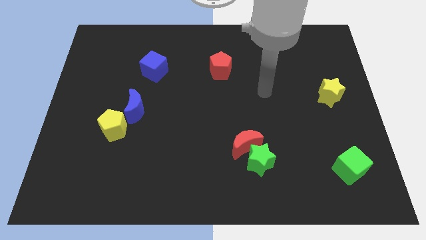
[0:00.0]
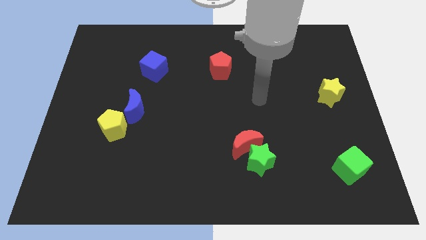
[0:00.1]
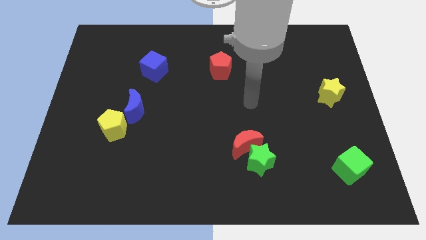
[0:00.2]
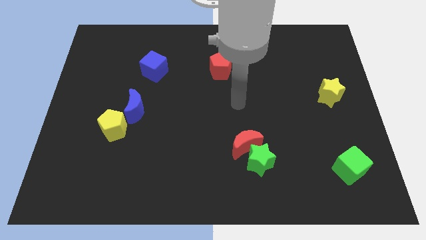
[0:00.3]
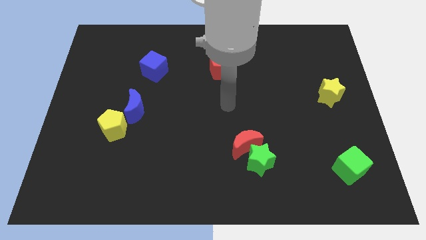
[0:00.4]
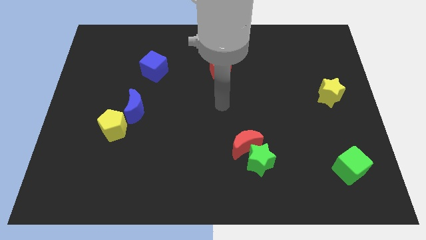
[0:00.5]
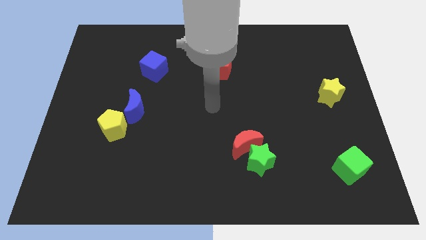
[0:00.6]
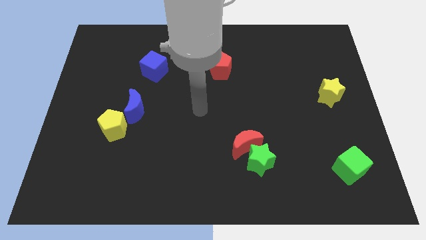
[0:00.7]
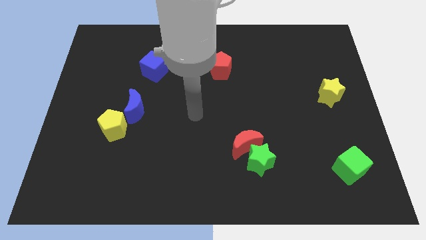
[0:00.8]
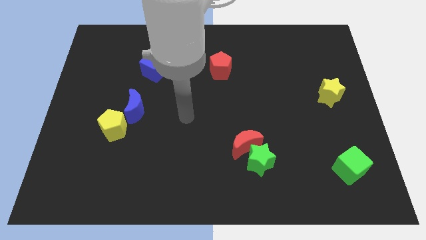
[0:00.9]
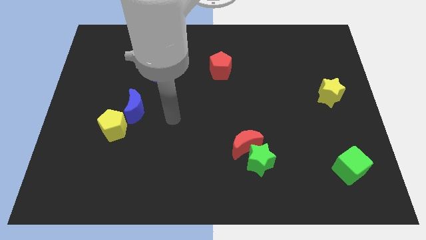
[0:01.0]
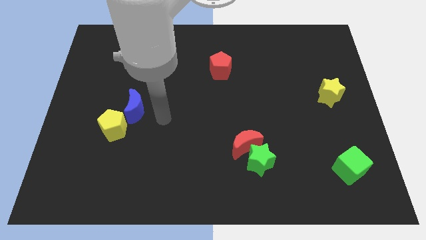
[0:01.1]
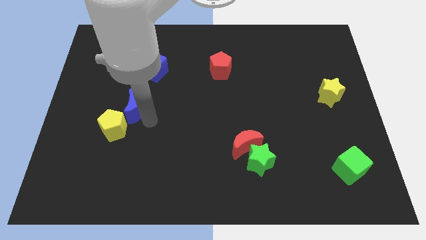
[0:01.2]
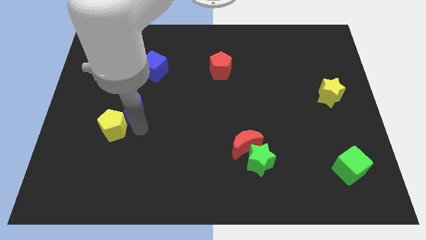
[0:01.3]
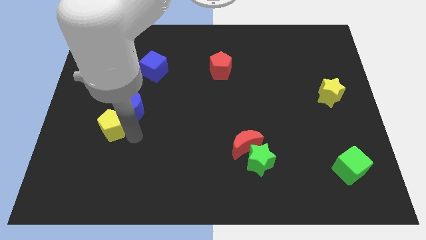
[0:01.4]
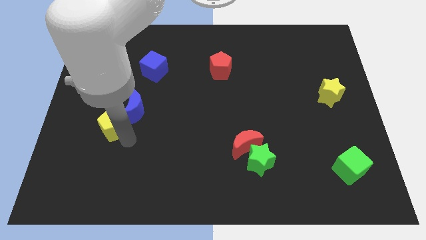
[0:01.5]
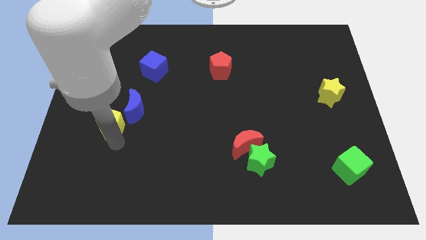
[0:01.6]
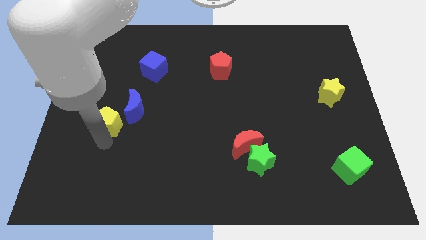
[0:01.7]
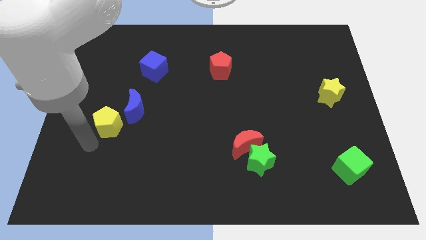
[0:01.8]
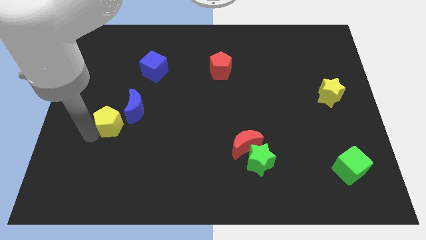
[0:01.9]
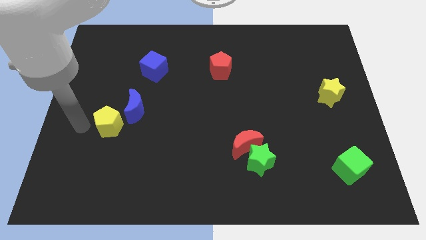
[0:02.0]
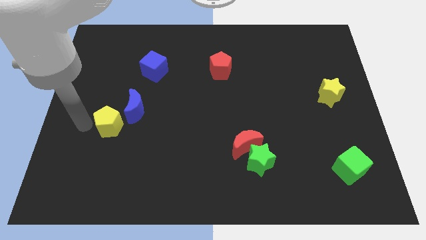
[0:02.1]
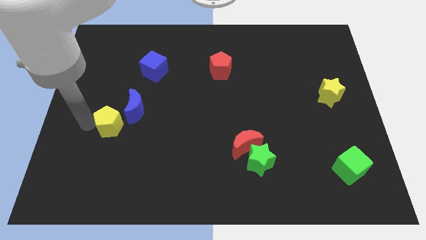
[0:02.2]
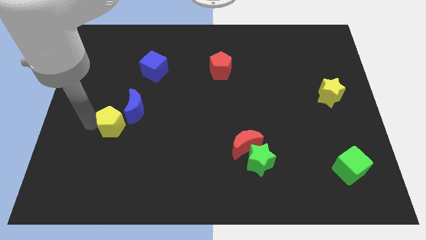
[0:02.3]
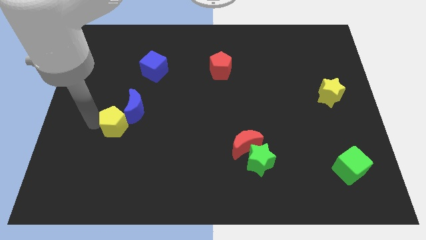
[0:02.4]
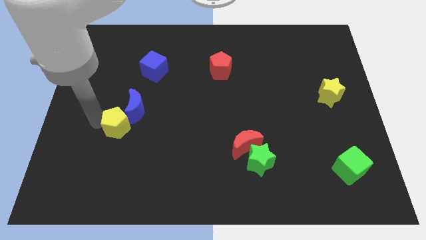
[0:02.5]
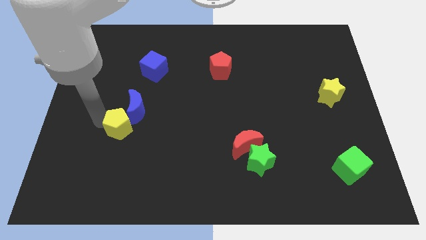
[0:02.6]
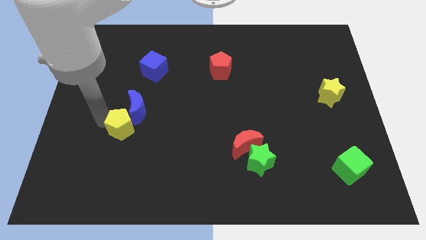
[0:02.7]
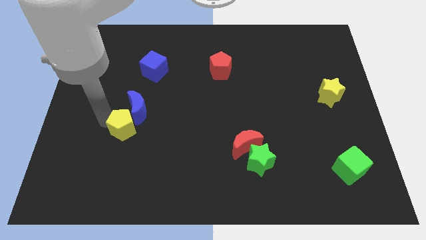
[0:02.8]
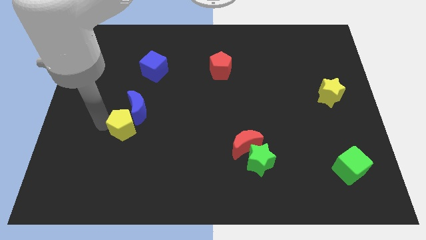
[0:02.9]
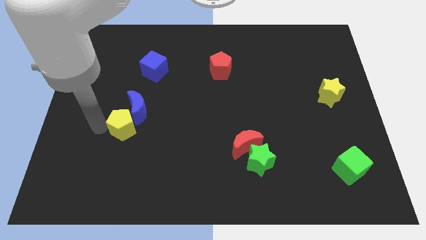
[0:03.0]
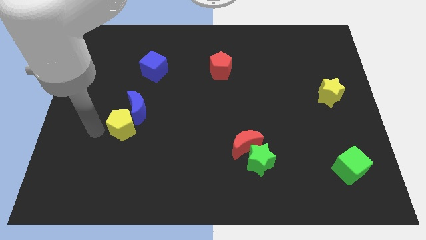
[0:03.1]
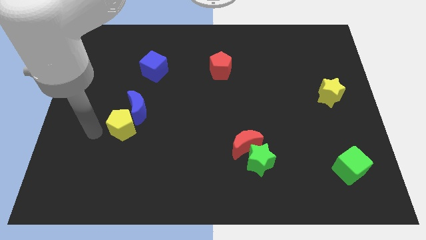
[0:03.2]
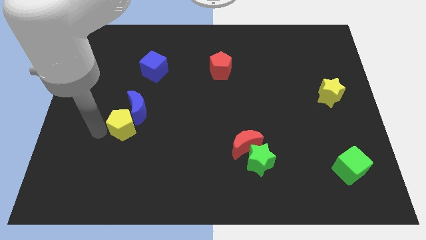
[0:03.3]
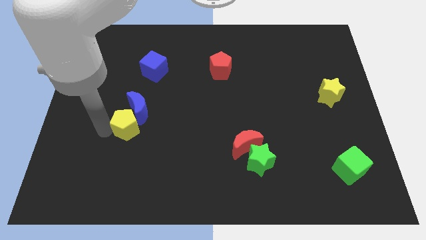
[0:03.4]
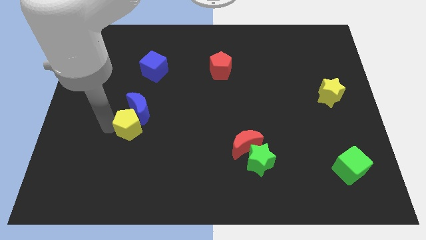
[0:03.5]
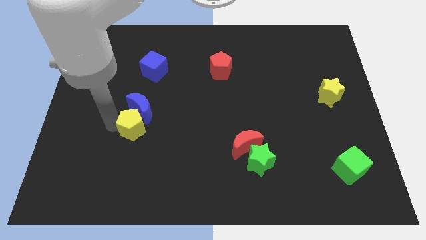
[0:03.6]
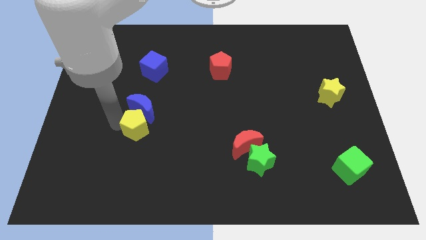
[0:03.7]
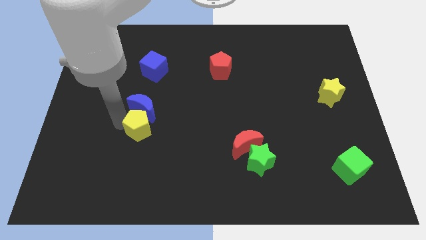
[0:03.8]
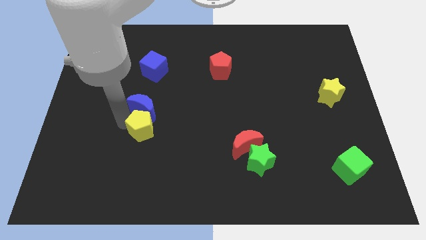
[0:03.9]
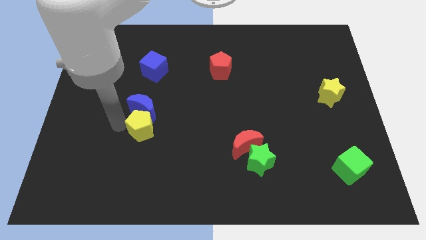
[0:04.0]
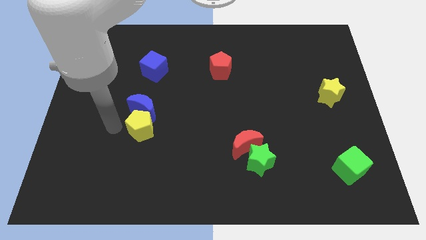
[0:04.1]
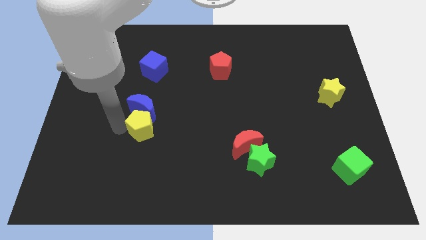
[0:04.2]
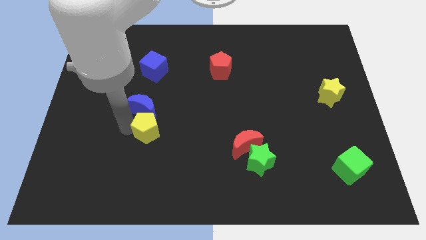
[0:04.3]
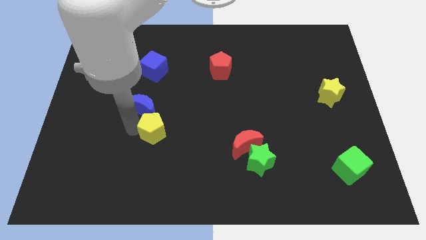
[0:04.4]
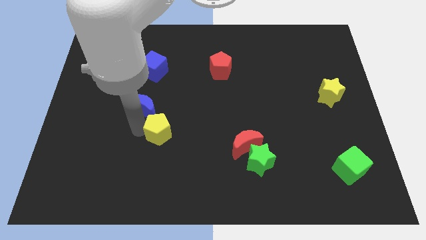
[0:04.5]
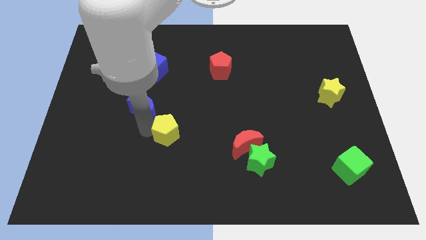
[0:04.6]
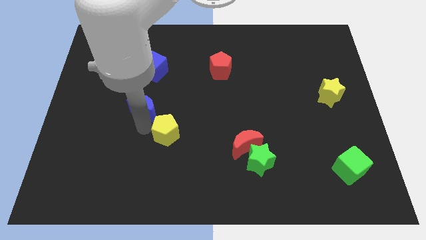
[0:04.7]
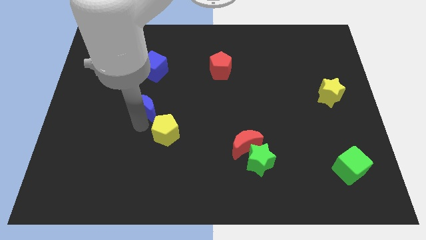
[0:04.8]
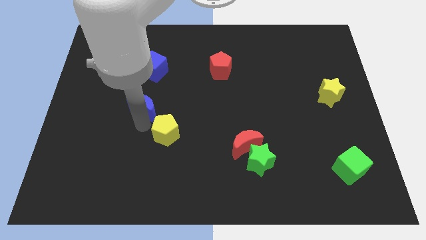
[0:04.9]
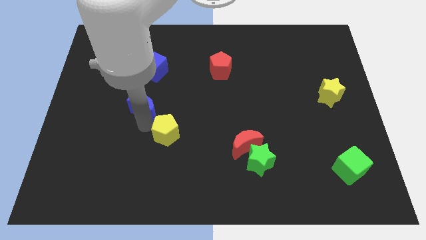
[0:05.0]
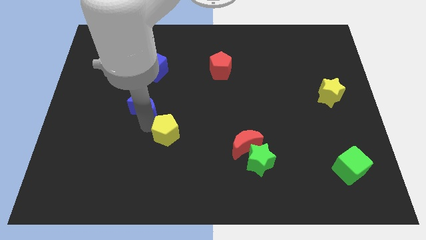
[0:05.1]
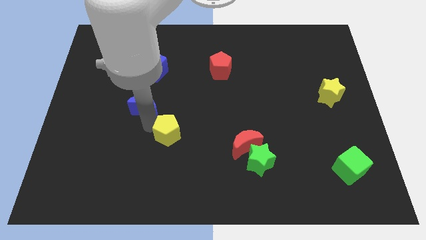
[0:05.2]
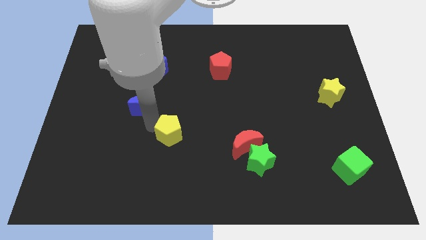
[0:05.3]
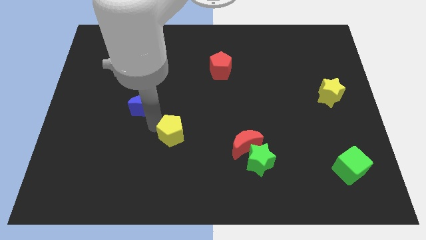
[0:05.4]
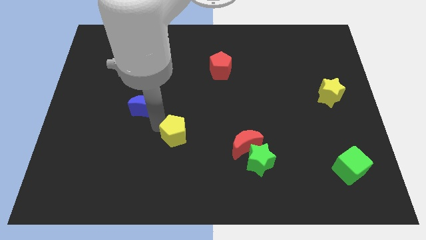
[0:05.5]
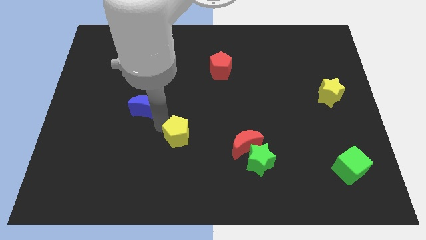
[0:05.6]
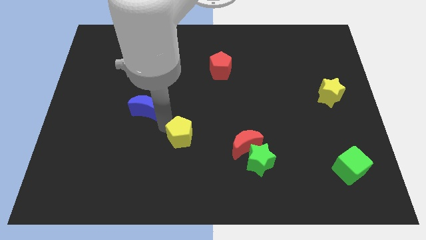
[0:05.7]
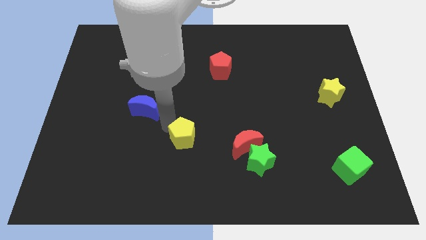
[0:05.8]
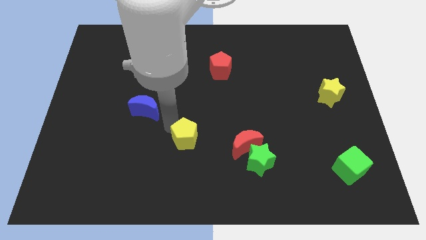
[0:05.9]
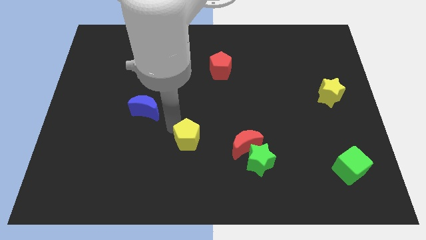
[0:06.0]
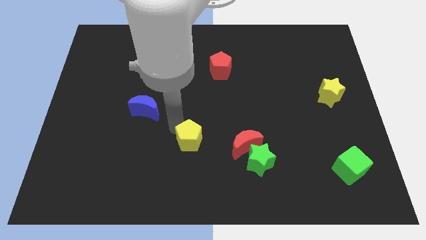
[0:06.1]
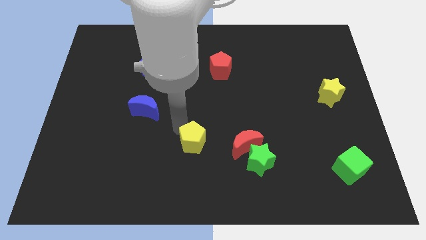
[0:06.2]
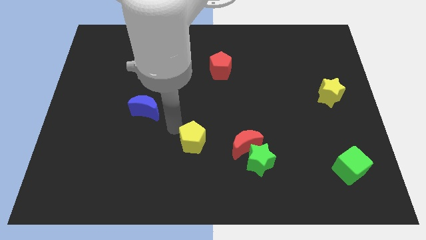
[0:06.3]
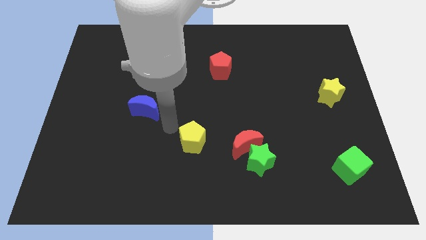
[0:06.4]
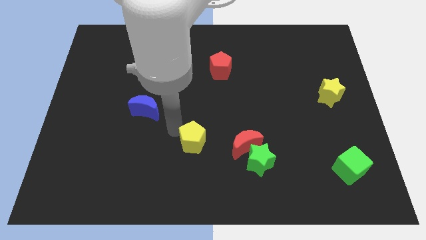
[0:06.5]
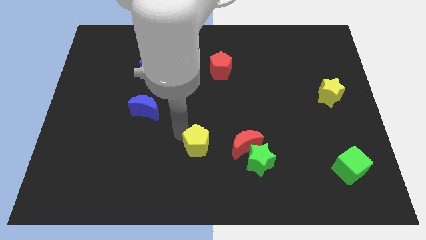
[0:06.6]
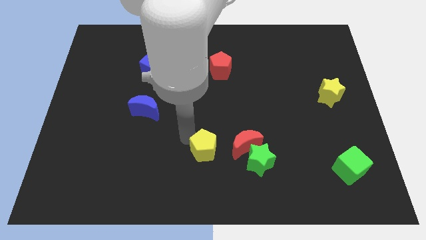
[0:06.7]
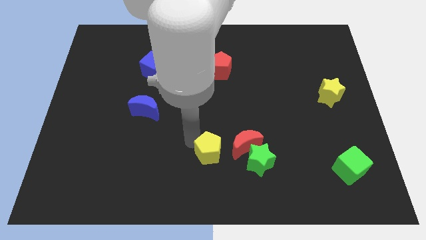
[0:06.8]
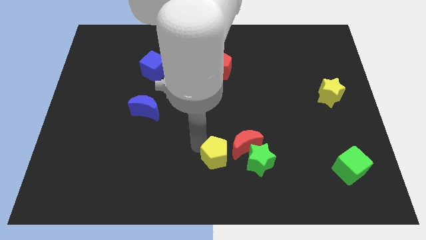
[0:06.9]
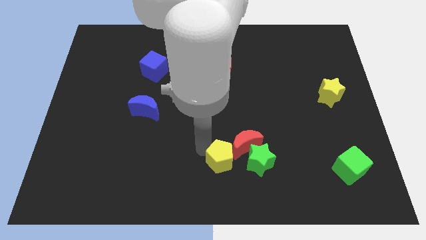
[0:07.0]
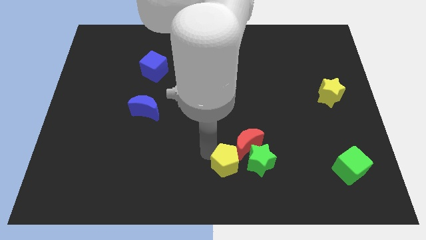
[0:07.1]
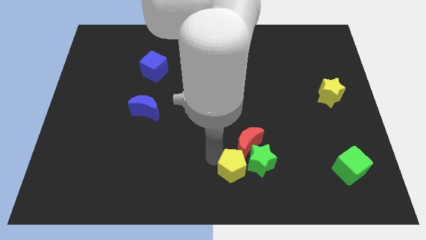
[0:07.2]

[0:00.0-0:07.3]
slide the yellow pentagon next to the green star
